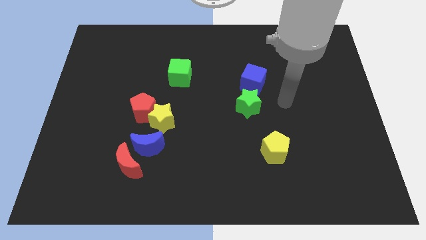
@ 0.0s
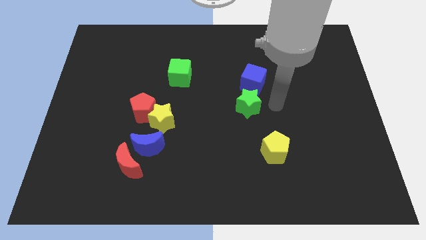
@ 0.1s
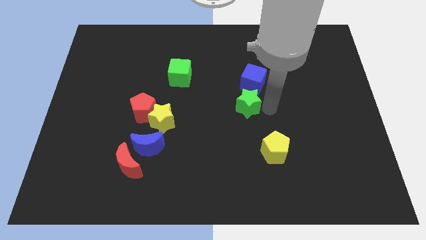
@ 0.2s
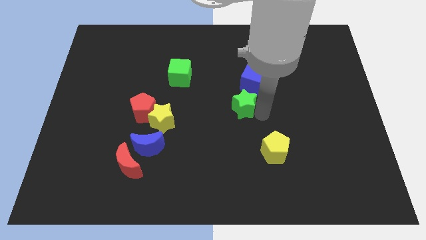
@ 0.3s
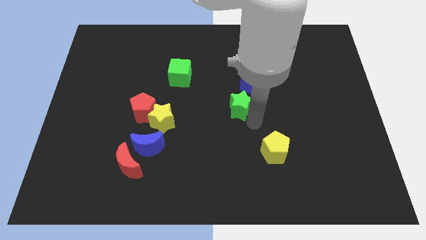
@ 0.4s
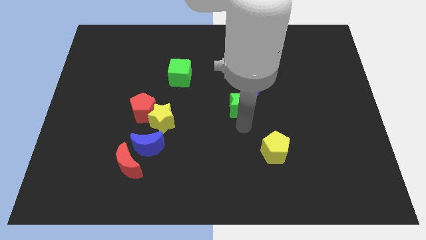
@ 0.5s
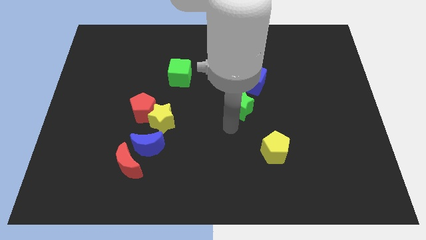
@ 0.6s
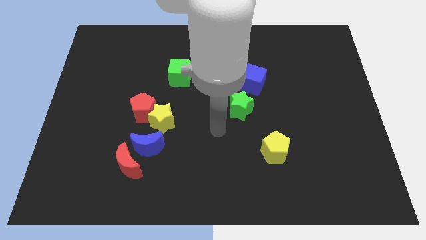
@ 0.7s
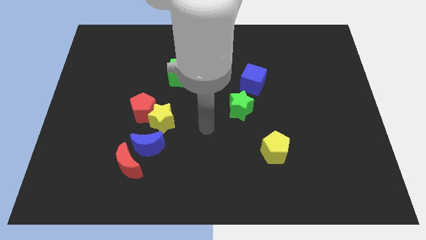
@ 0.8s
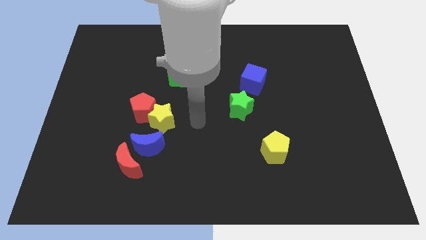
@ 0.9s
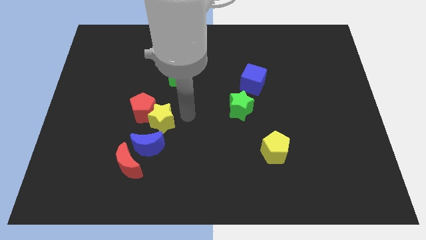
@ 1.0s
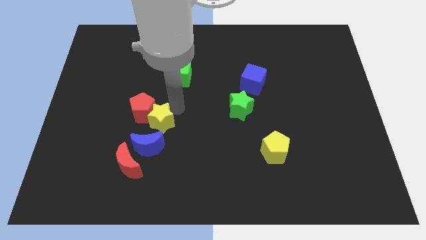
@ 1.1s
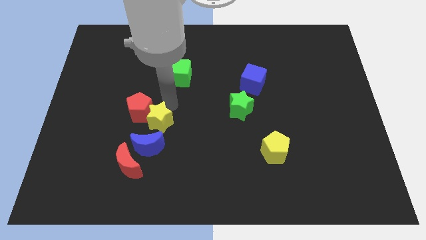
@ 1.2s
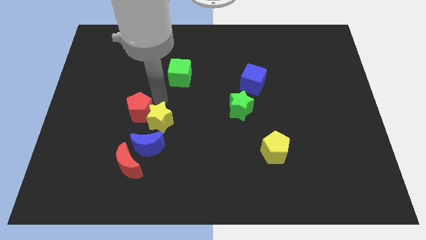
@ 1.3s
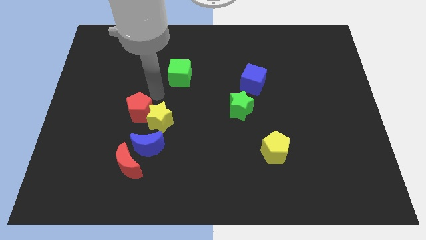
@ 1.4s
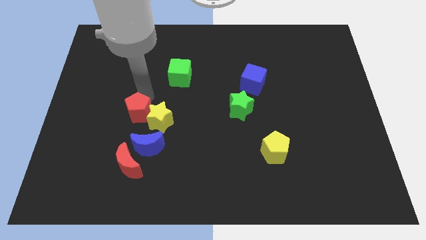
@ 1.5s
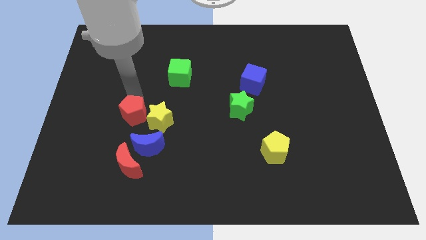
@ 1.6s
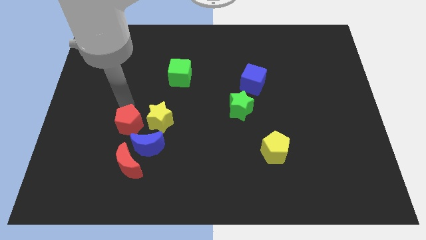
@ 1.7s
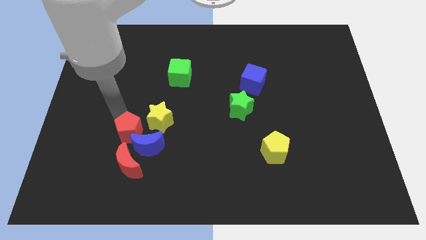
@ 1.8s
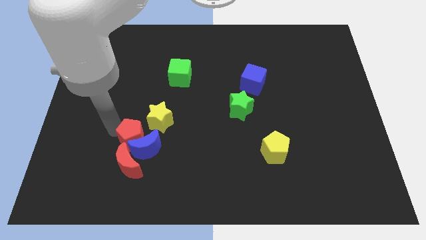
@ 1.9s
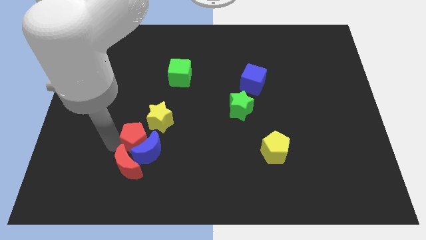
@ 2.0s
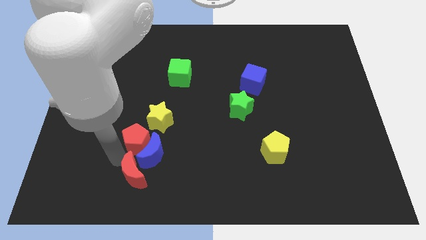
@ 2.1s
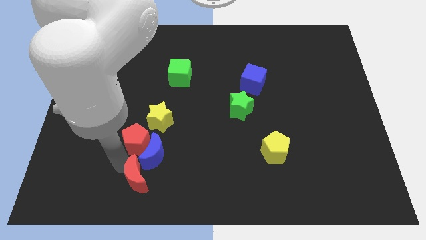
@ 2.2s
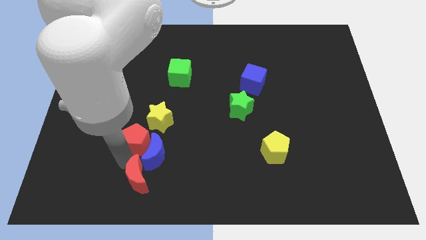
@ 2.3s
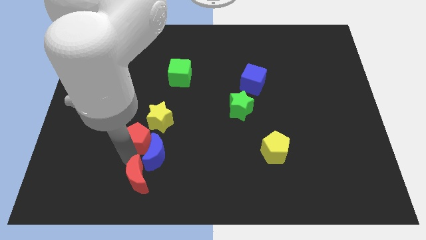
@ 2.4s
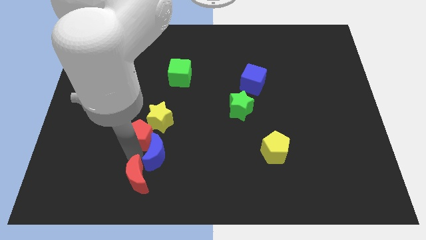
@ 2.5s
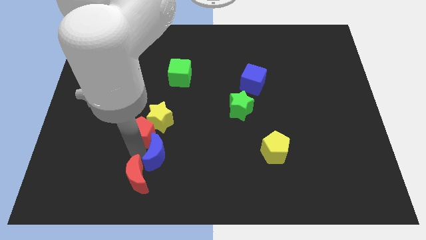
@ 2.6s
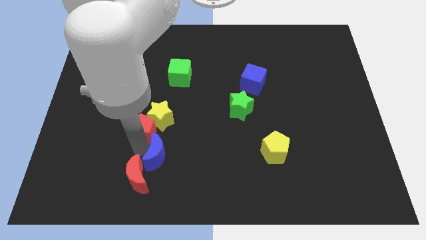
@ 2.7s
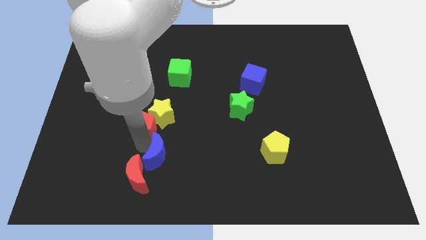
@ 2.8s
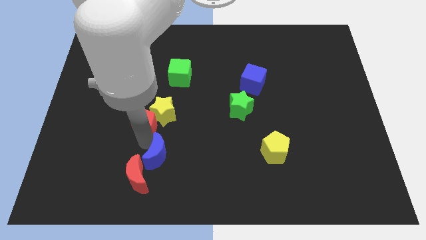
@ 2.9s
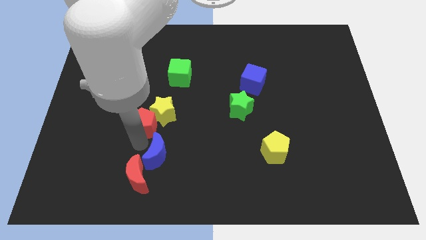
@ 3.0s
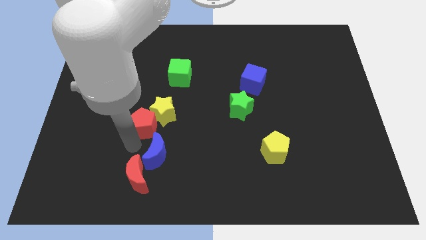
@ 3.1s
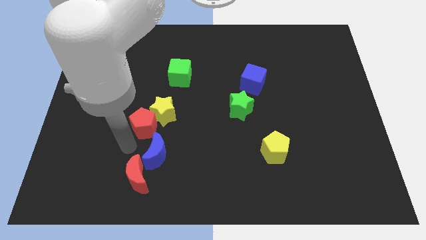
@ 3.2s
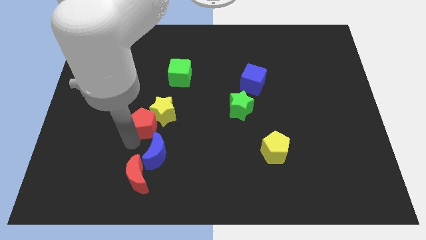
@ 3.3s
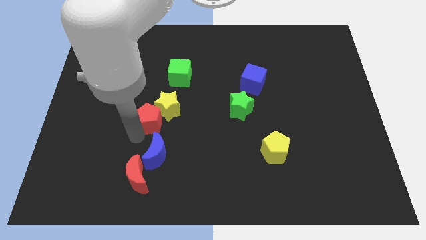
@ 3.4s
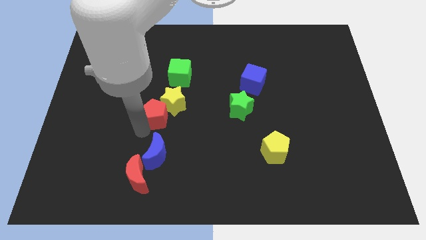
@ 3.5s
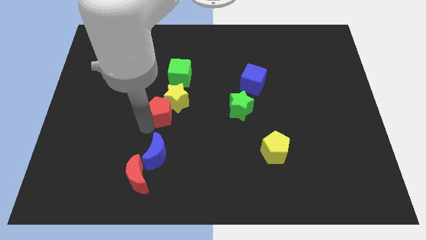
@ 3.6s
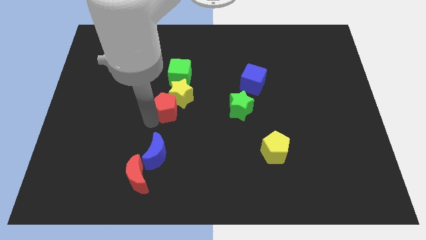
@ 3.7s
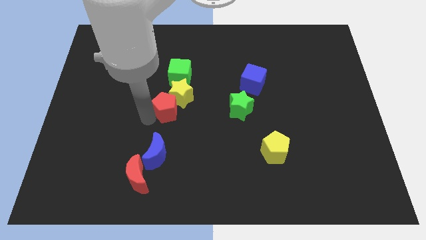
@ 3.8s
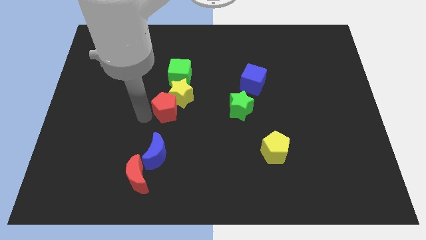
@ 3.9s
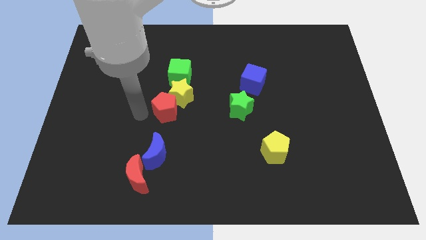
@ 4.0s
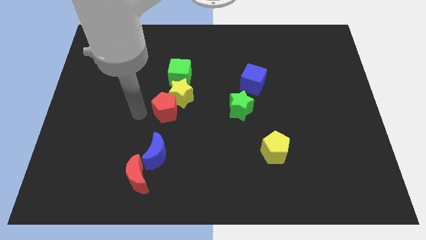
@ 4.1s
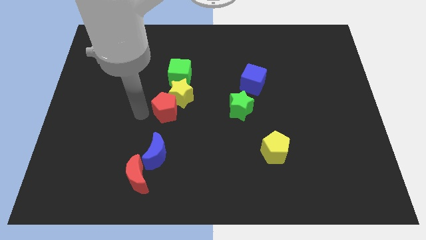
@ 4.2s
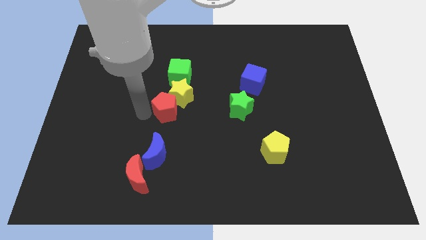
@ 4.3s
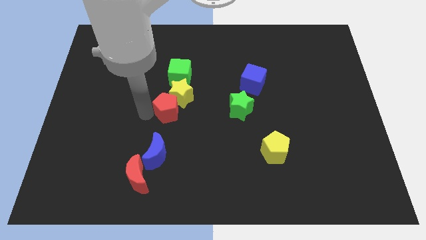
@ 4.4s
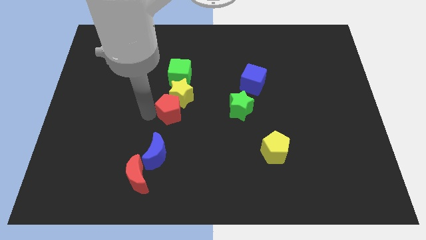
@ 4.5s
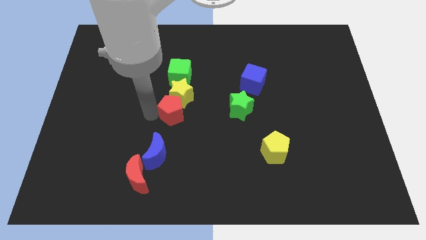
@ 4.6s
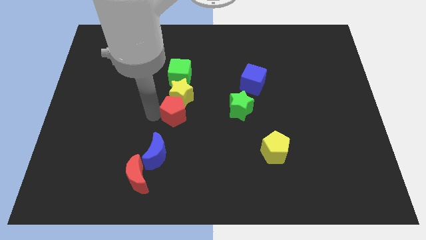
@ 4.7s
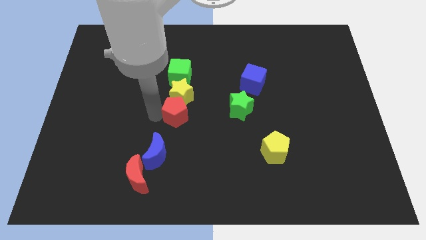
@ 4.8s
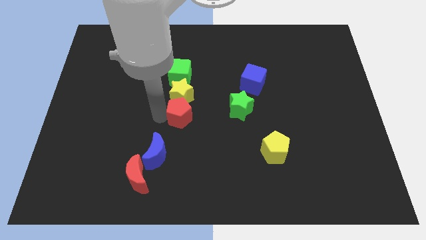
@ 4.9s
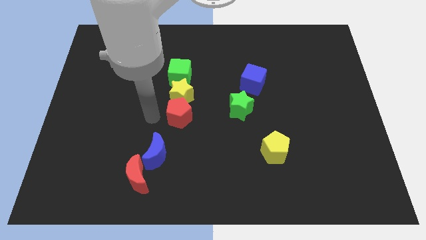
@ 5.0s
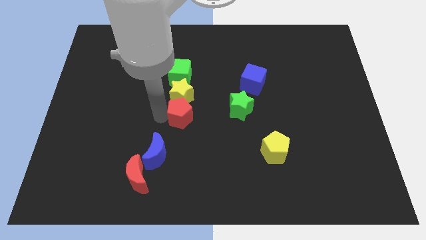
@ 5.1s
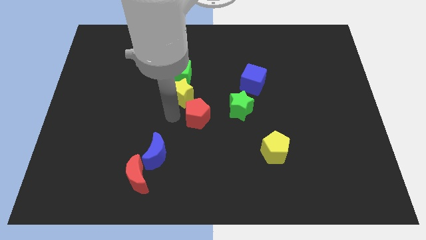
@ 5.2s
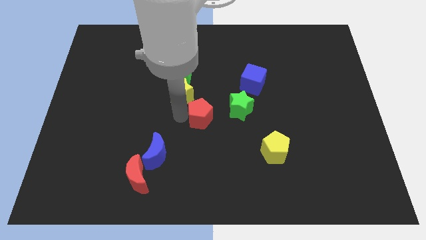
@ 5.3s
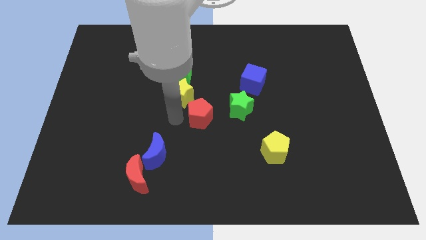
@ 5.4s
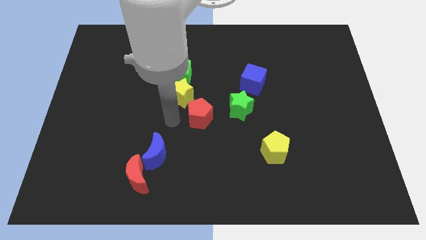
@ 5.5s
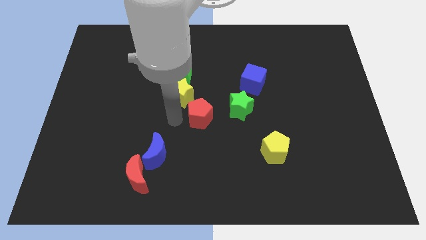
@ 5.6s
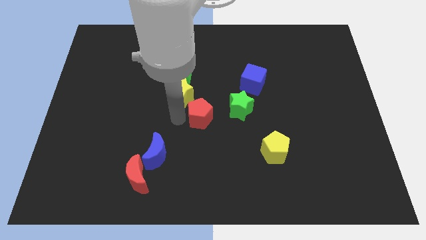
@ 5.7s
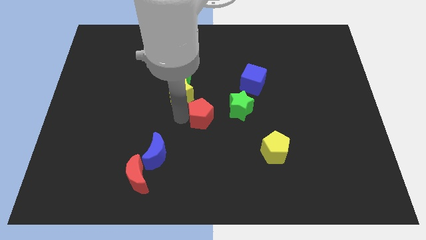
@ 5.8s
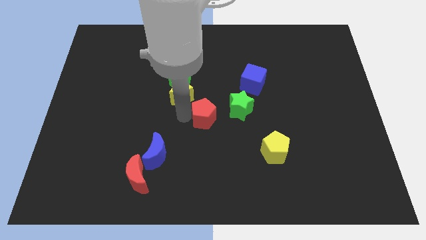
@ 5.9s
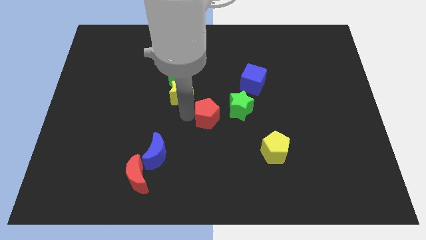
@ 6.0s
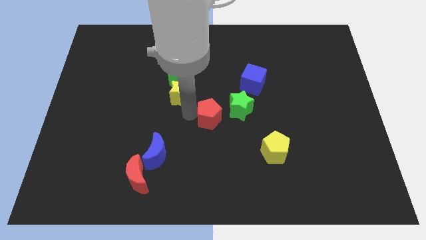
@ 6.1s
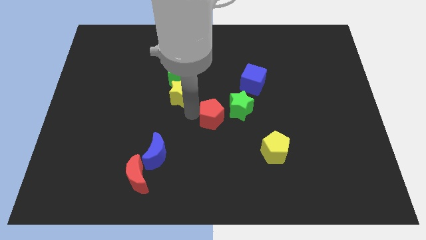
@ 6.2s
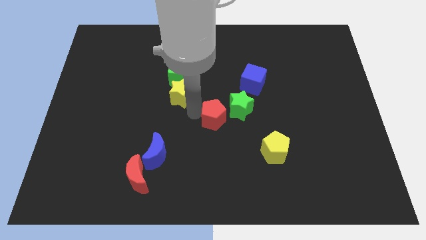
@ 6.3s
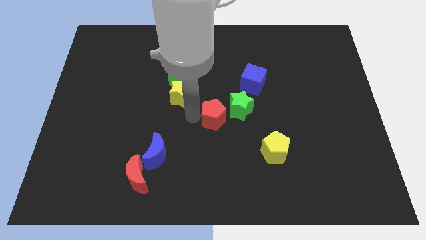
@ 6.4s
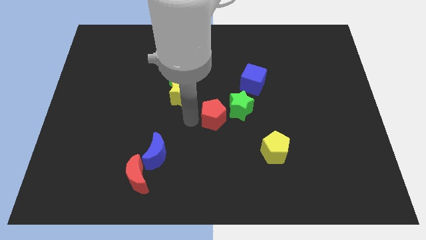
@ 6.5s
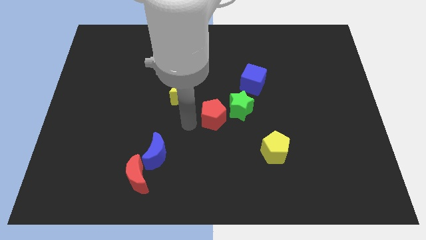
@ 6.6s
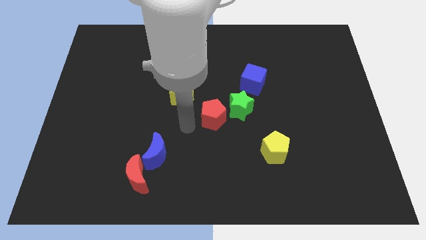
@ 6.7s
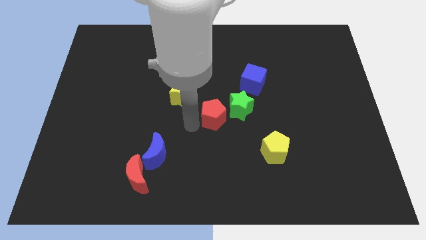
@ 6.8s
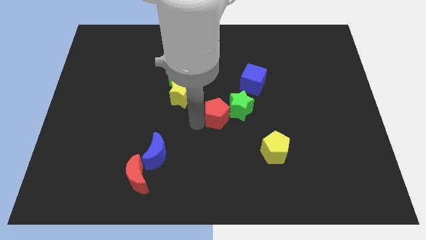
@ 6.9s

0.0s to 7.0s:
slide the red pentagon close to the green star
